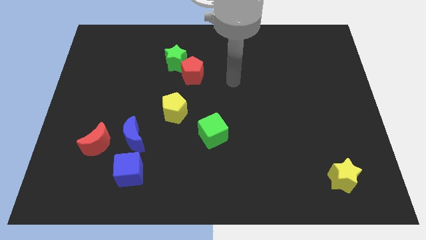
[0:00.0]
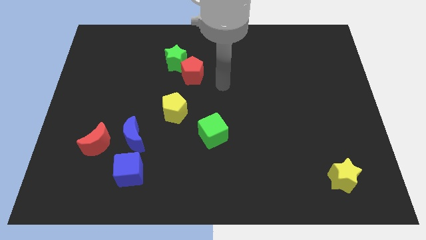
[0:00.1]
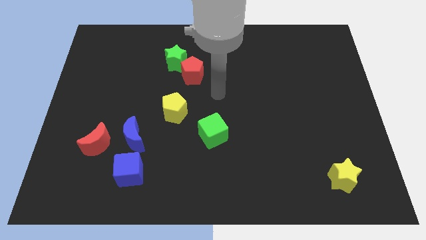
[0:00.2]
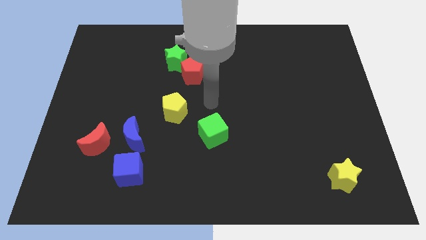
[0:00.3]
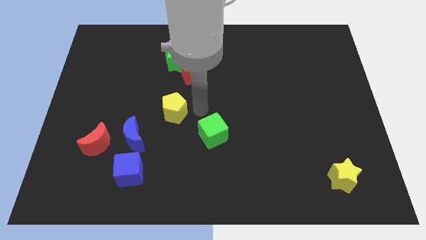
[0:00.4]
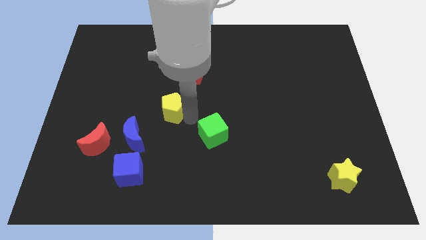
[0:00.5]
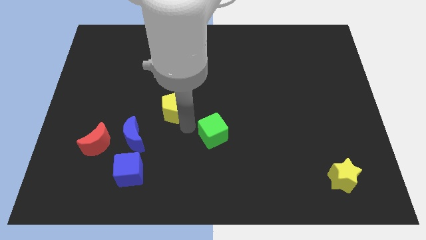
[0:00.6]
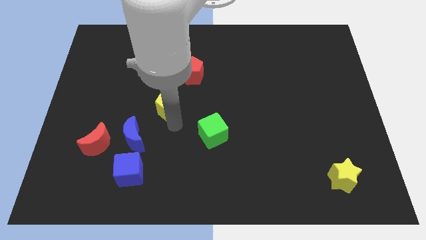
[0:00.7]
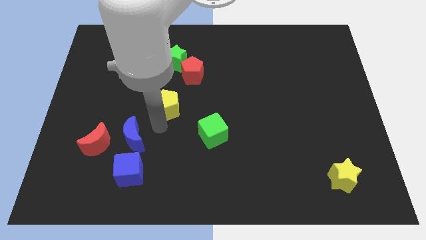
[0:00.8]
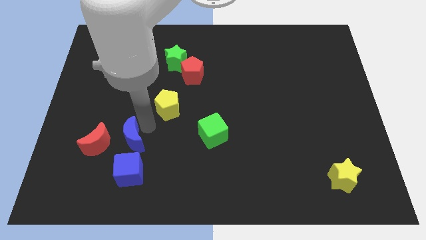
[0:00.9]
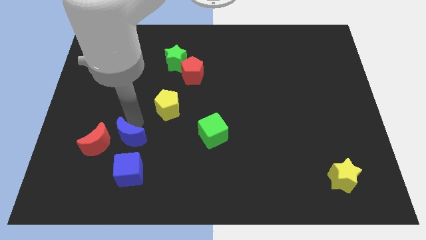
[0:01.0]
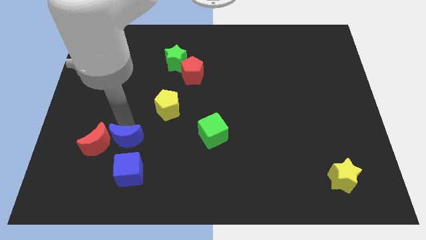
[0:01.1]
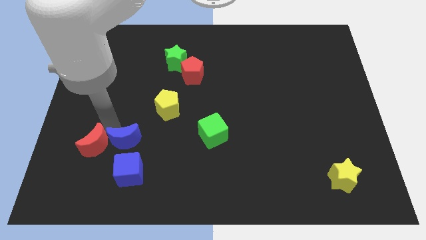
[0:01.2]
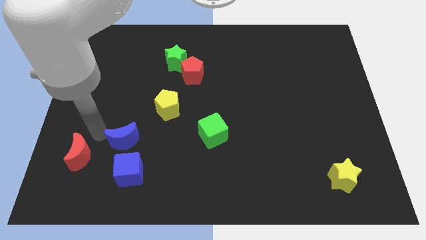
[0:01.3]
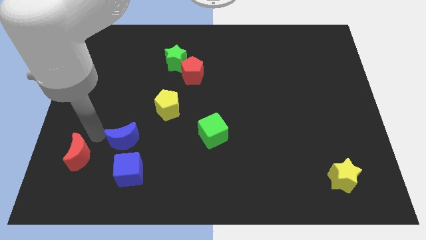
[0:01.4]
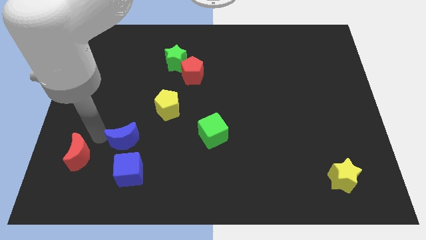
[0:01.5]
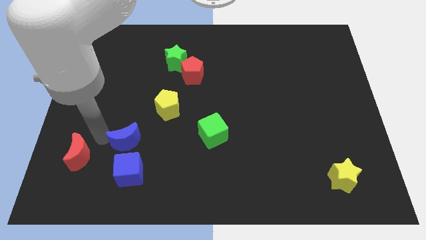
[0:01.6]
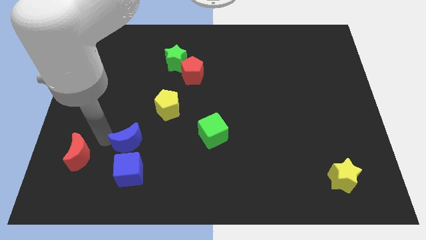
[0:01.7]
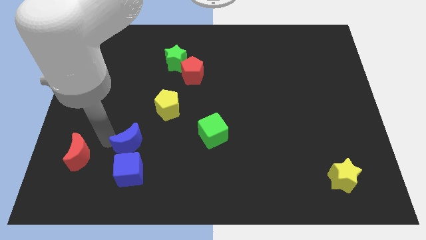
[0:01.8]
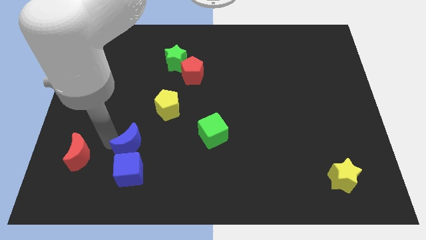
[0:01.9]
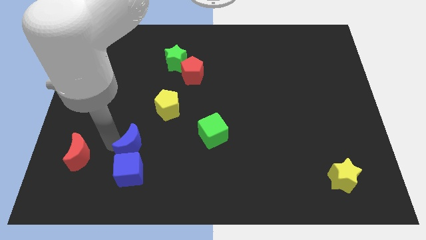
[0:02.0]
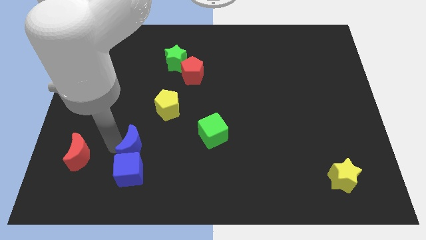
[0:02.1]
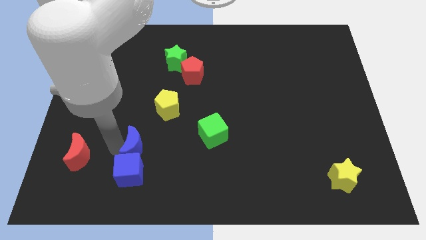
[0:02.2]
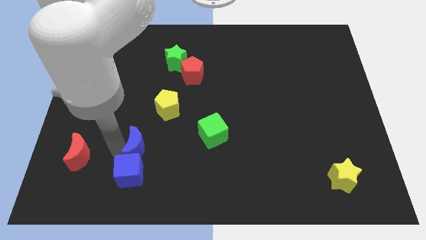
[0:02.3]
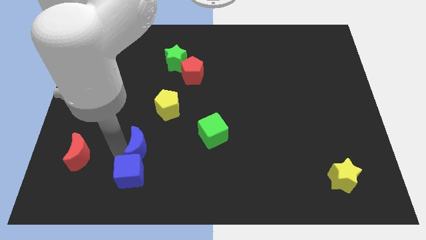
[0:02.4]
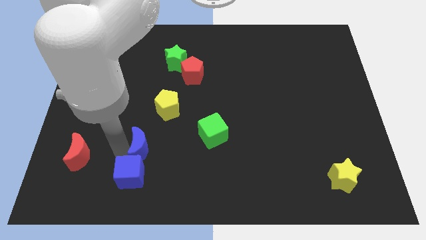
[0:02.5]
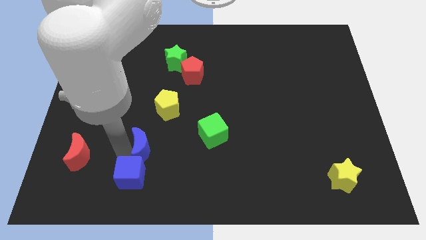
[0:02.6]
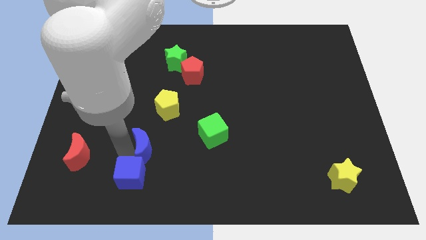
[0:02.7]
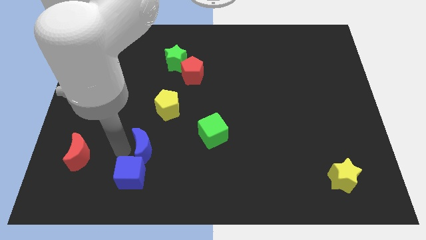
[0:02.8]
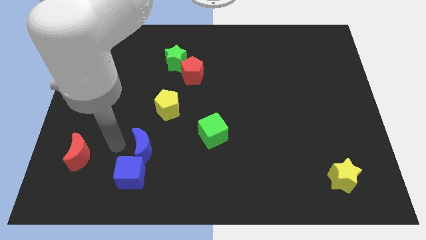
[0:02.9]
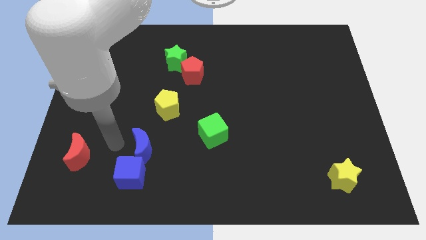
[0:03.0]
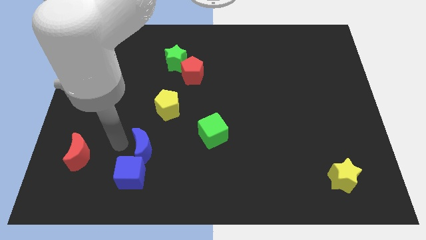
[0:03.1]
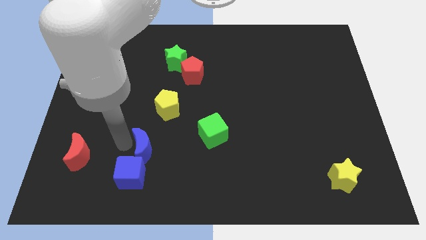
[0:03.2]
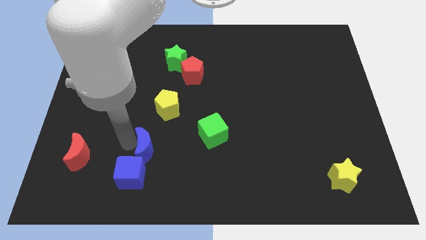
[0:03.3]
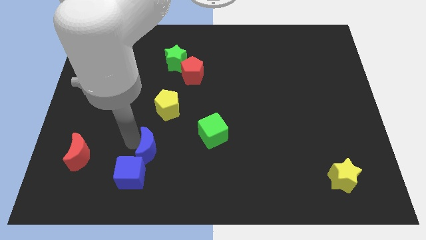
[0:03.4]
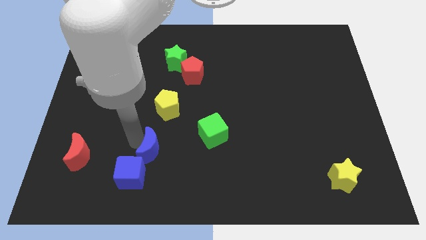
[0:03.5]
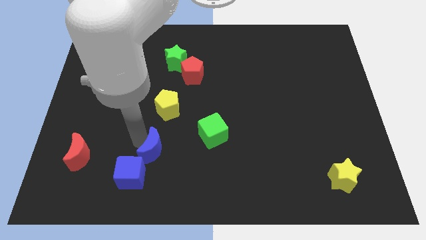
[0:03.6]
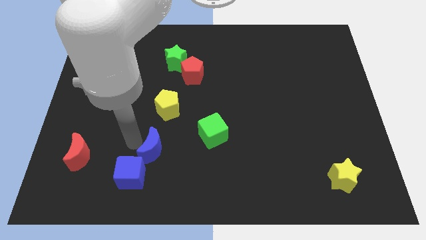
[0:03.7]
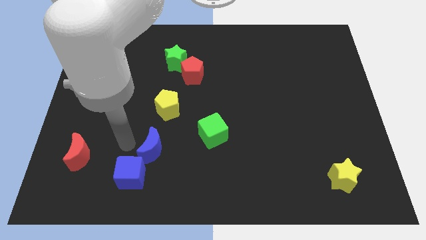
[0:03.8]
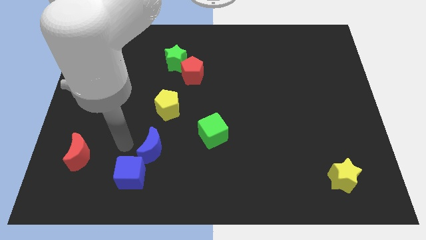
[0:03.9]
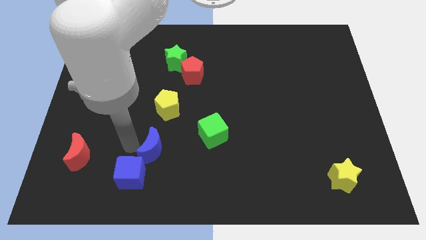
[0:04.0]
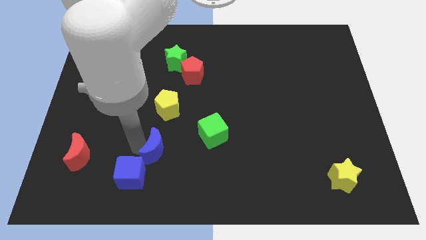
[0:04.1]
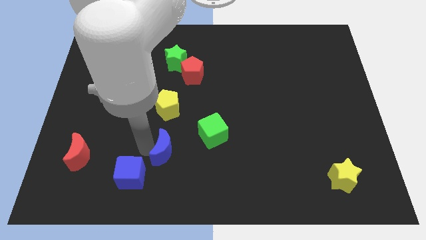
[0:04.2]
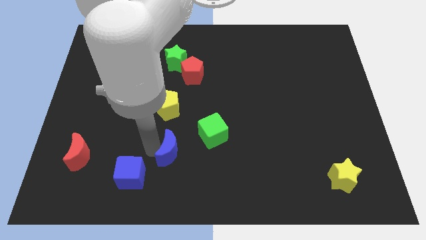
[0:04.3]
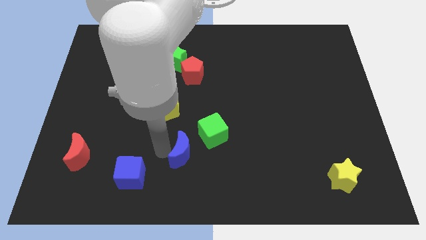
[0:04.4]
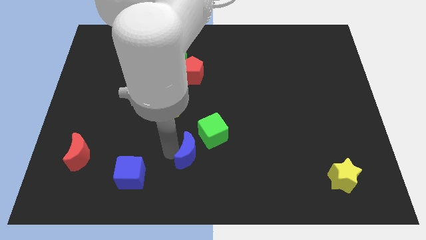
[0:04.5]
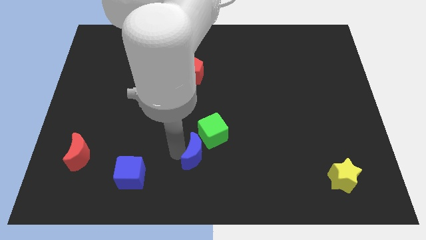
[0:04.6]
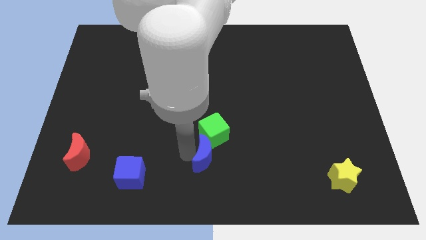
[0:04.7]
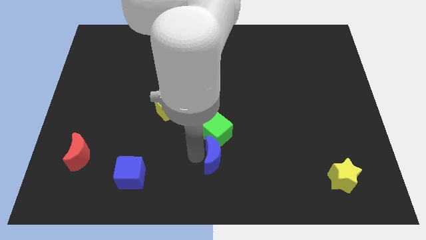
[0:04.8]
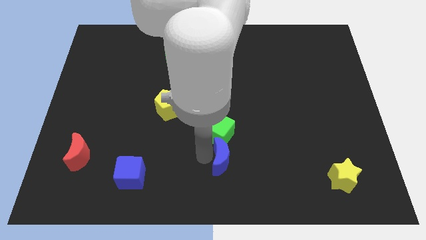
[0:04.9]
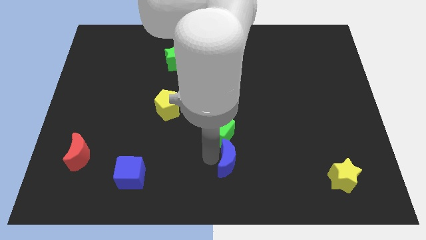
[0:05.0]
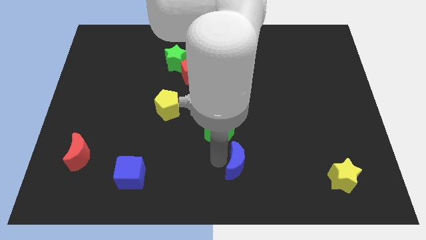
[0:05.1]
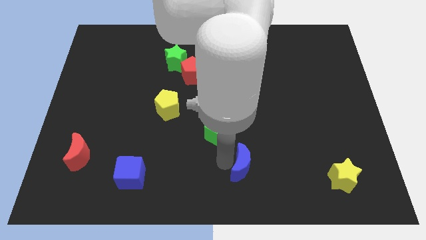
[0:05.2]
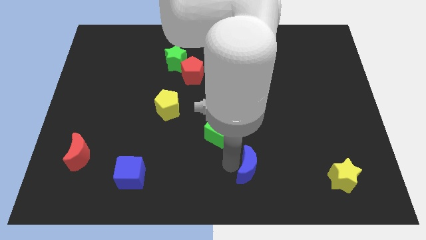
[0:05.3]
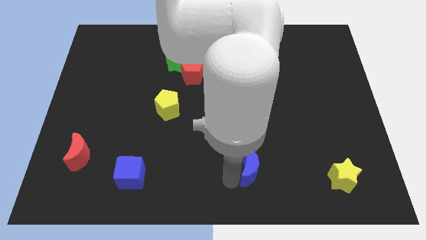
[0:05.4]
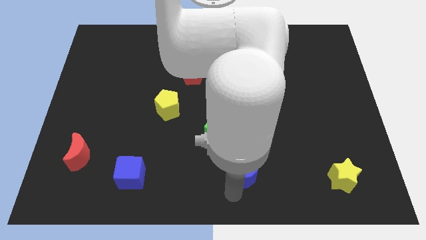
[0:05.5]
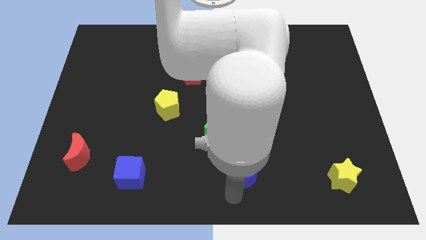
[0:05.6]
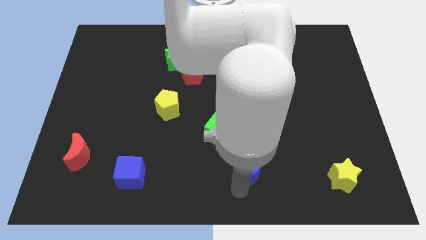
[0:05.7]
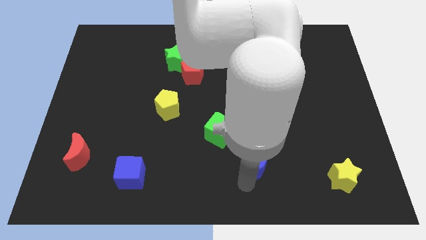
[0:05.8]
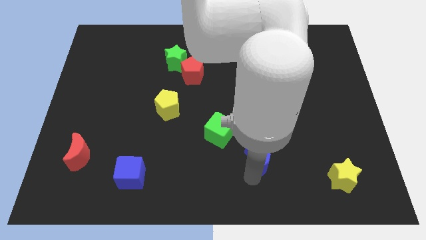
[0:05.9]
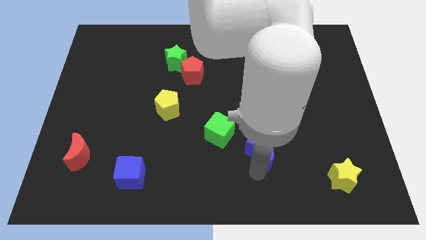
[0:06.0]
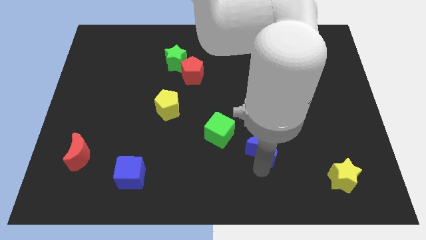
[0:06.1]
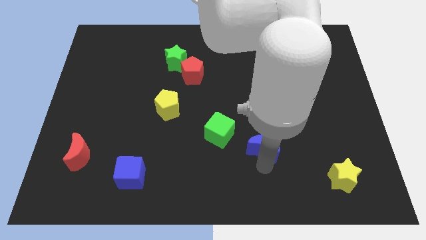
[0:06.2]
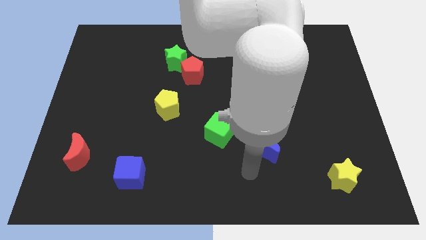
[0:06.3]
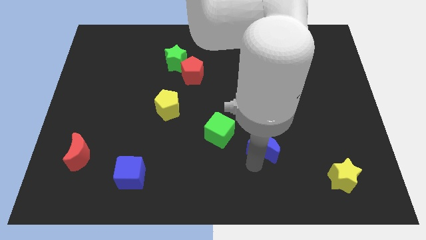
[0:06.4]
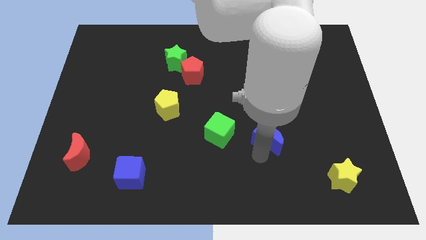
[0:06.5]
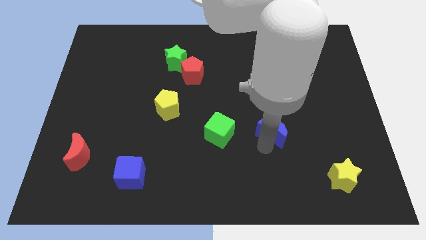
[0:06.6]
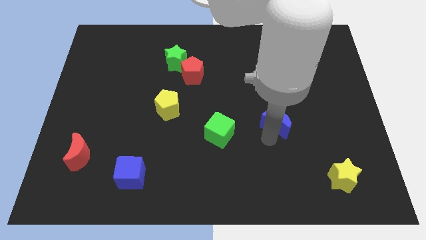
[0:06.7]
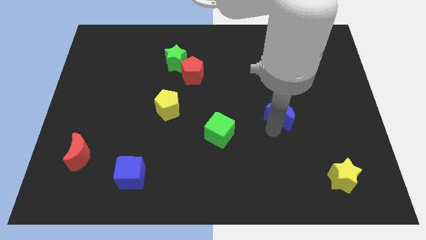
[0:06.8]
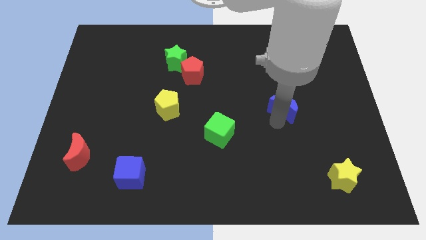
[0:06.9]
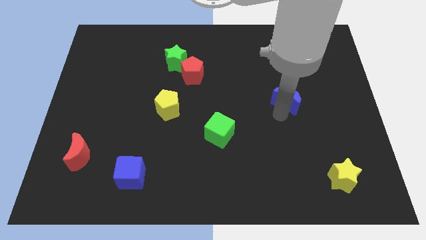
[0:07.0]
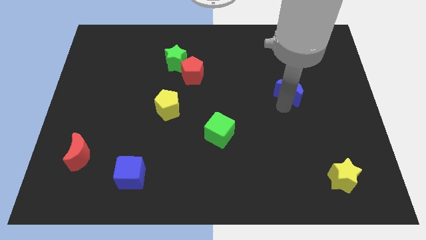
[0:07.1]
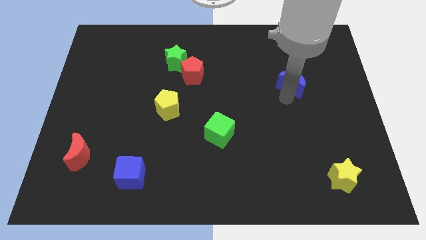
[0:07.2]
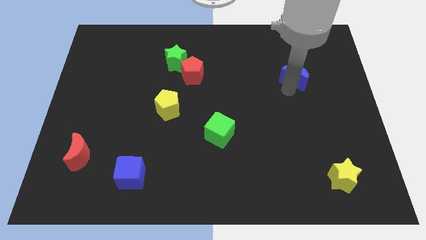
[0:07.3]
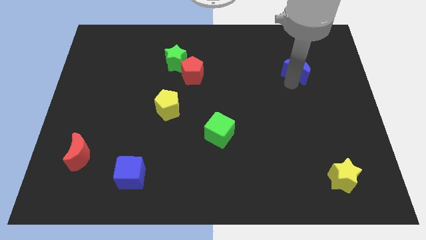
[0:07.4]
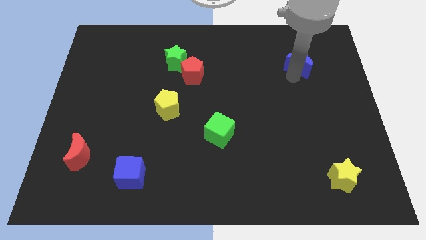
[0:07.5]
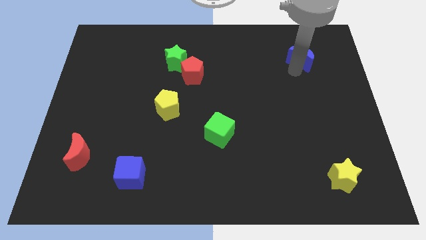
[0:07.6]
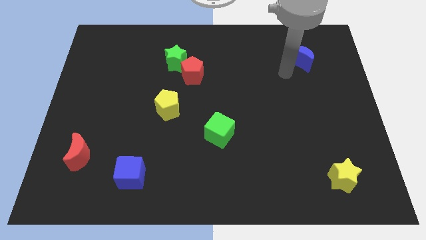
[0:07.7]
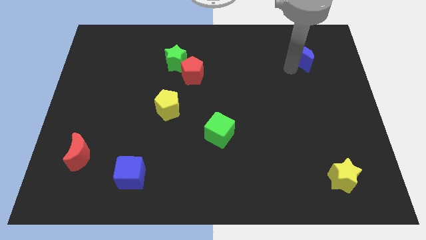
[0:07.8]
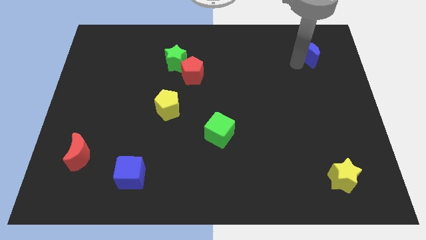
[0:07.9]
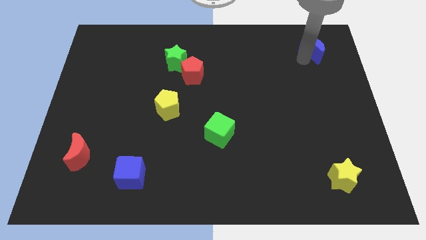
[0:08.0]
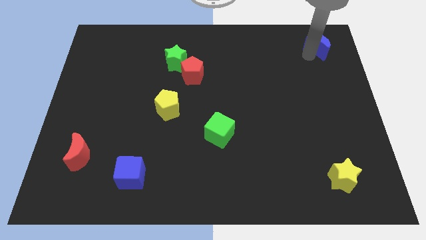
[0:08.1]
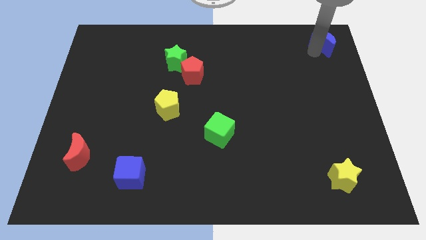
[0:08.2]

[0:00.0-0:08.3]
slide the blue moon to the top right corner
